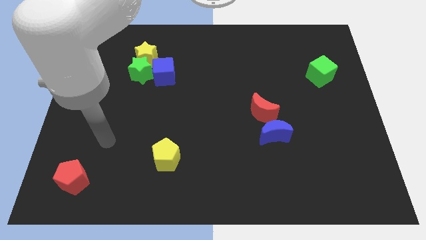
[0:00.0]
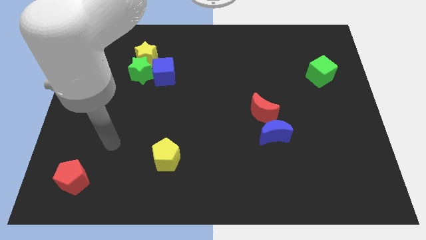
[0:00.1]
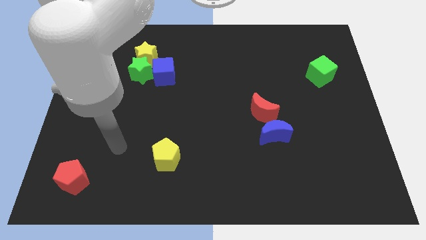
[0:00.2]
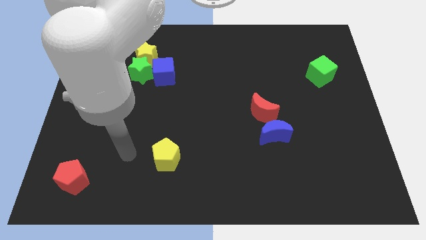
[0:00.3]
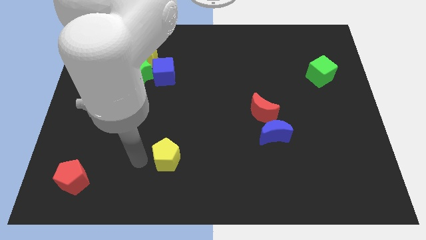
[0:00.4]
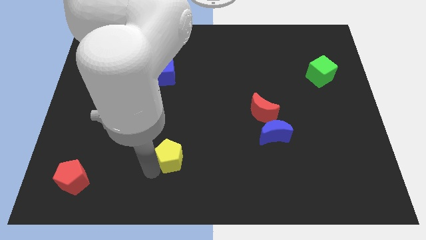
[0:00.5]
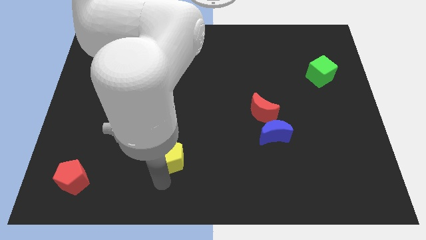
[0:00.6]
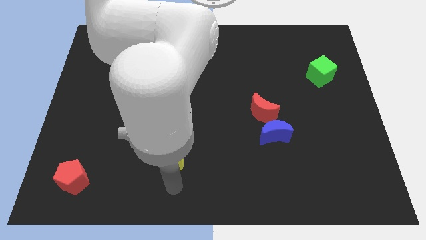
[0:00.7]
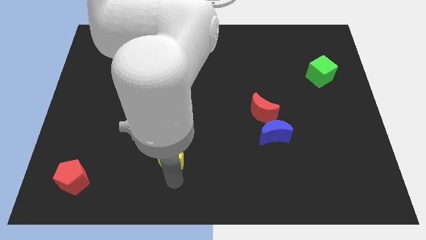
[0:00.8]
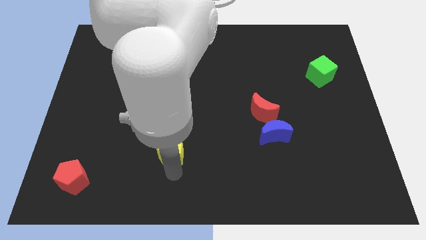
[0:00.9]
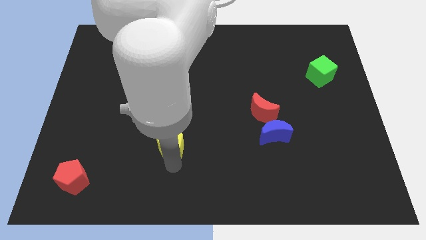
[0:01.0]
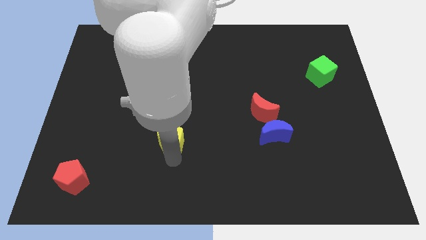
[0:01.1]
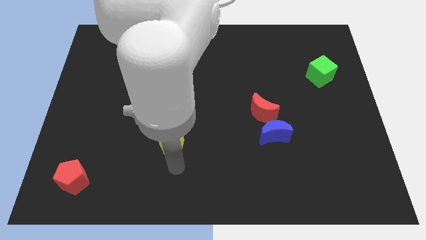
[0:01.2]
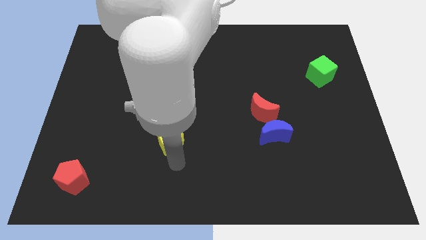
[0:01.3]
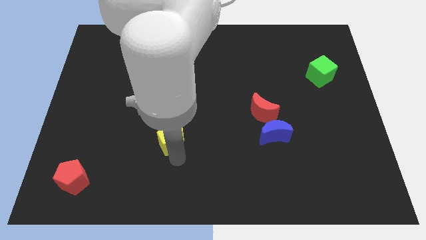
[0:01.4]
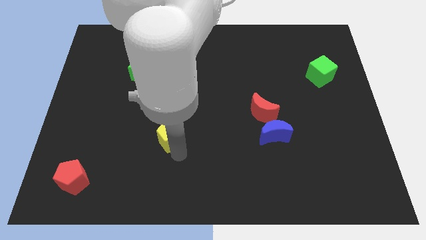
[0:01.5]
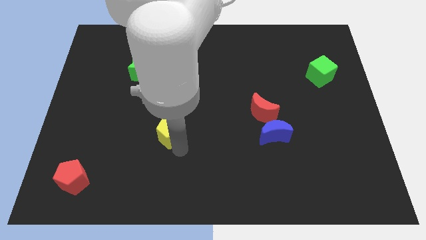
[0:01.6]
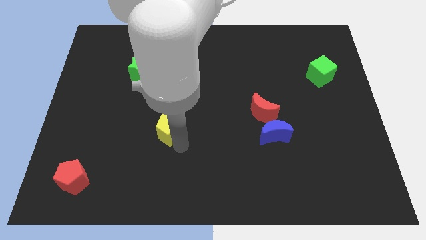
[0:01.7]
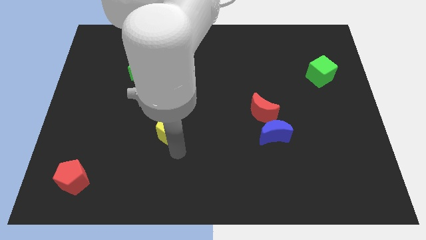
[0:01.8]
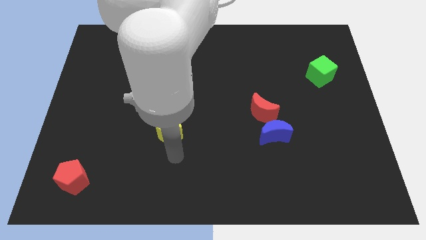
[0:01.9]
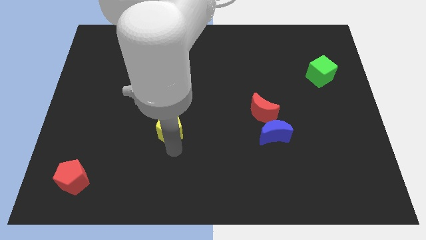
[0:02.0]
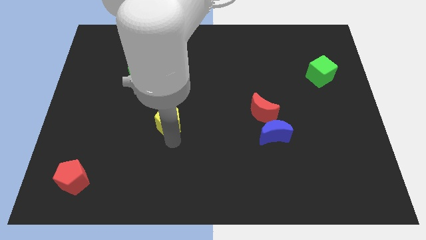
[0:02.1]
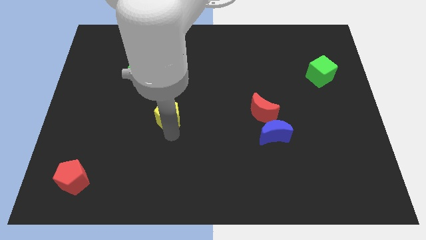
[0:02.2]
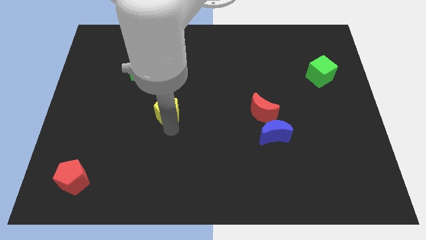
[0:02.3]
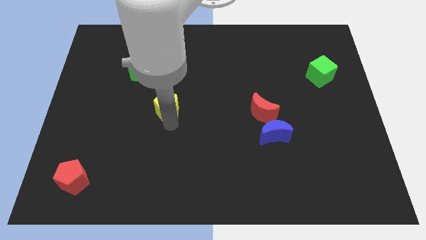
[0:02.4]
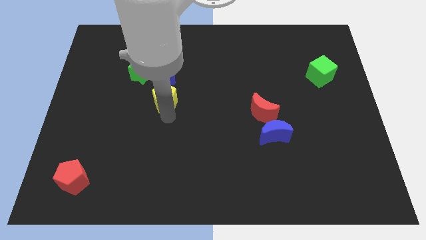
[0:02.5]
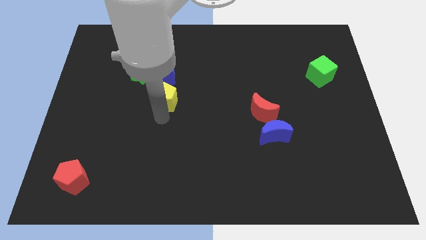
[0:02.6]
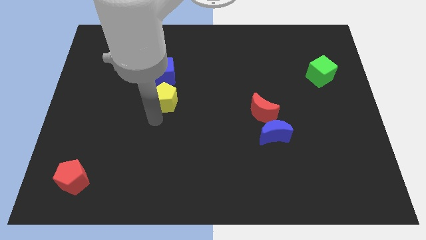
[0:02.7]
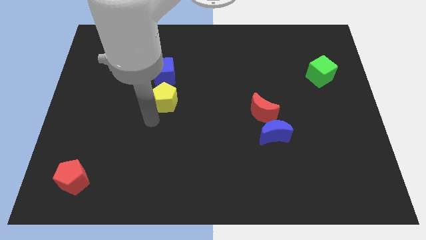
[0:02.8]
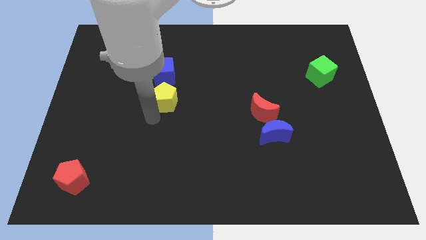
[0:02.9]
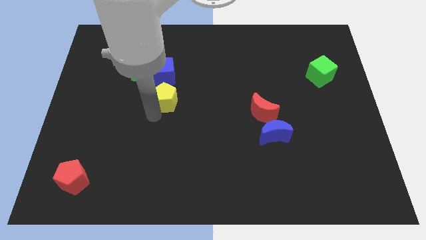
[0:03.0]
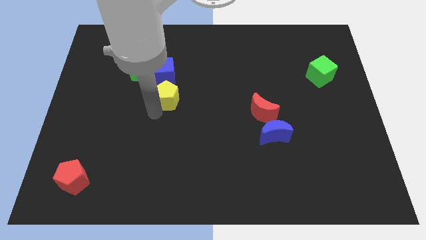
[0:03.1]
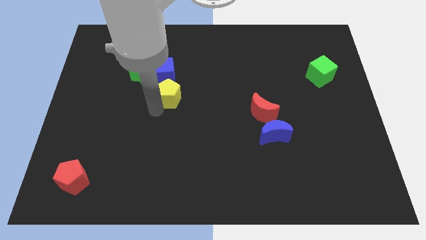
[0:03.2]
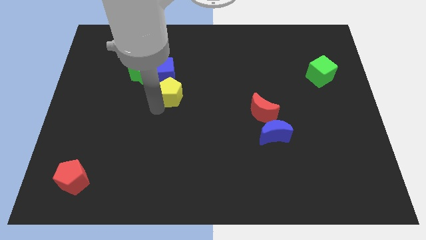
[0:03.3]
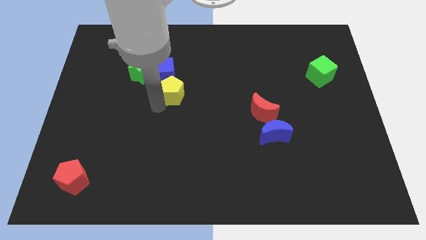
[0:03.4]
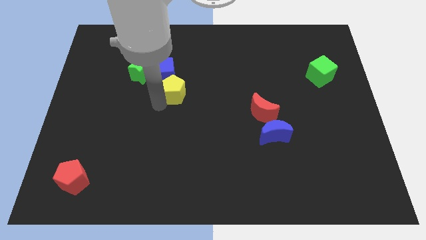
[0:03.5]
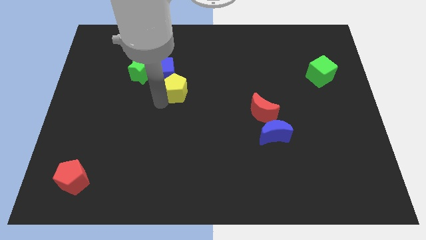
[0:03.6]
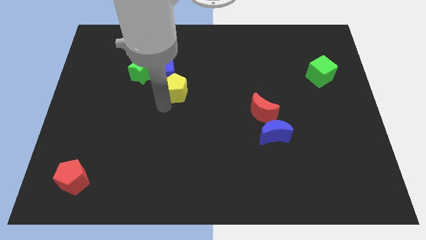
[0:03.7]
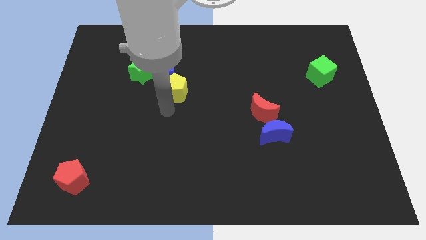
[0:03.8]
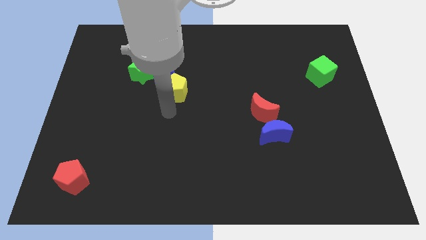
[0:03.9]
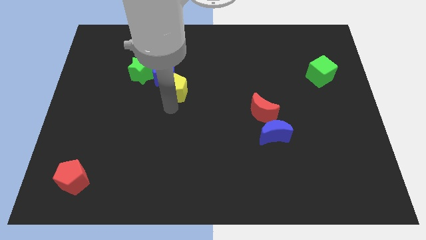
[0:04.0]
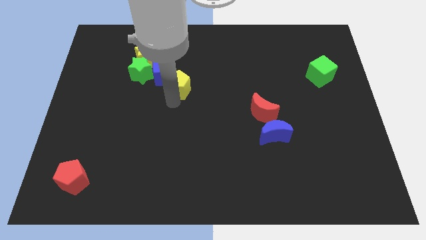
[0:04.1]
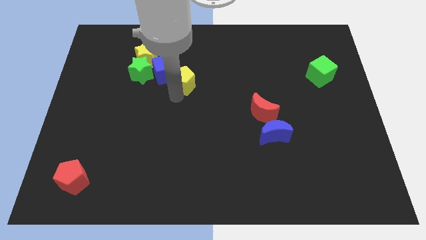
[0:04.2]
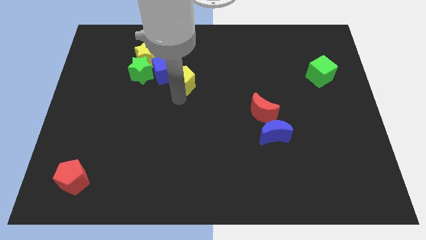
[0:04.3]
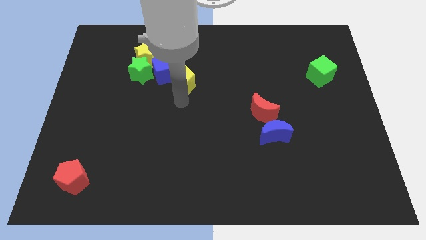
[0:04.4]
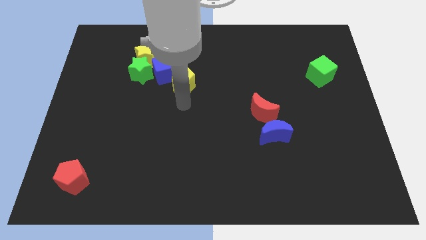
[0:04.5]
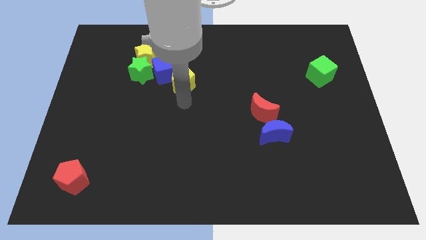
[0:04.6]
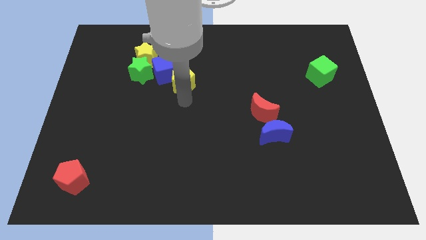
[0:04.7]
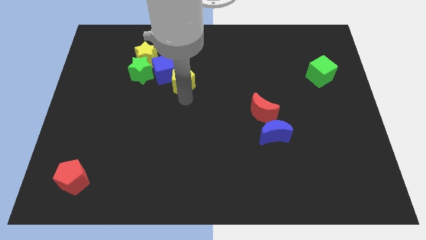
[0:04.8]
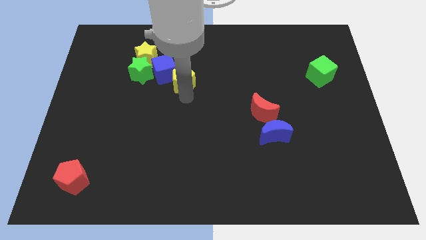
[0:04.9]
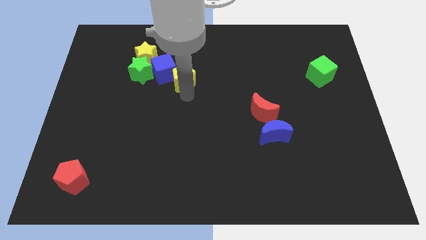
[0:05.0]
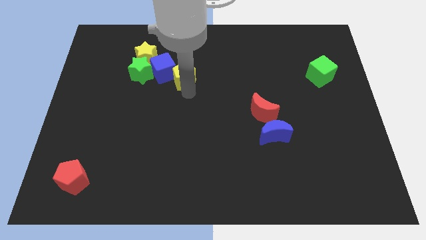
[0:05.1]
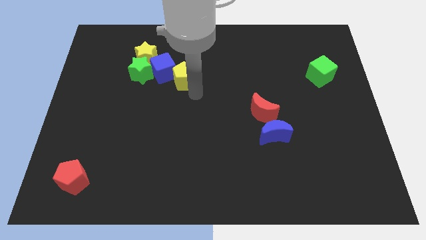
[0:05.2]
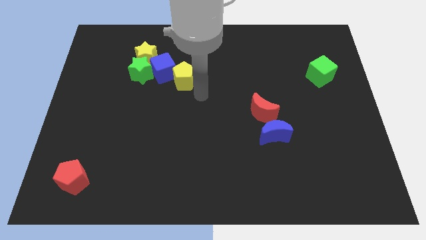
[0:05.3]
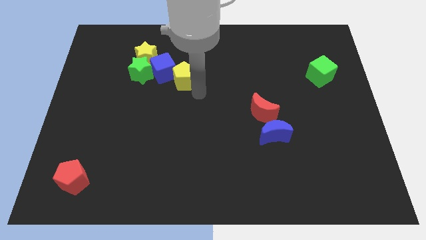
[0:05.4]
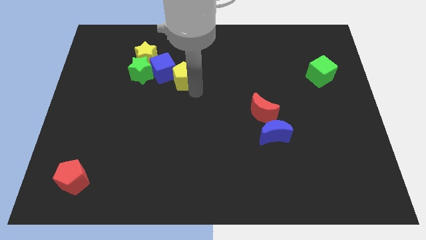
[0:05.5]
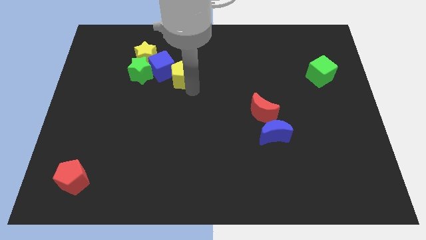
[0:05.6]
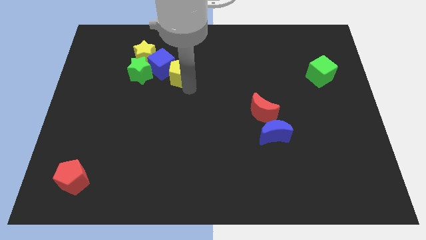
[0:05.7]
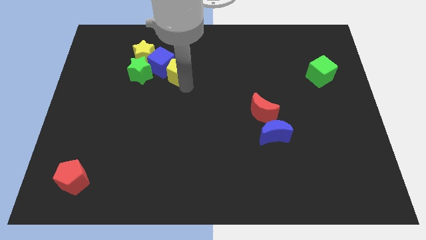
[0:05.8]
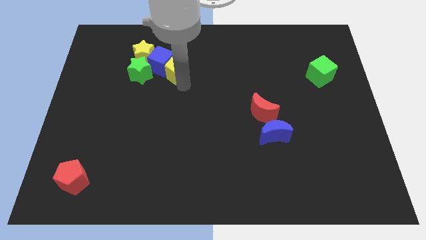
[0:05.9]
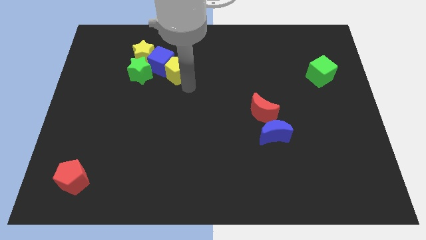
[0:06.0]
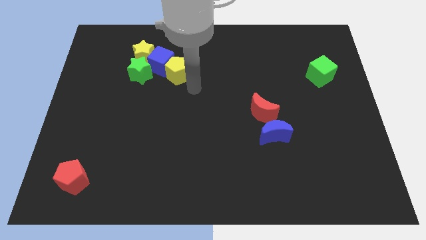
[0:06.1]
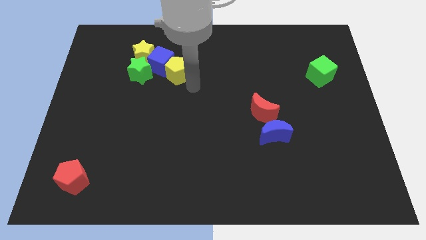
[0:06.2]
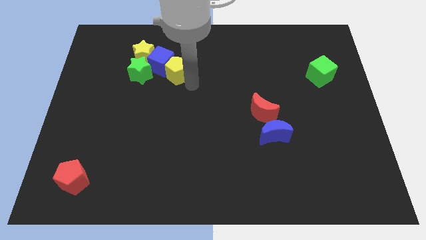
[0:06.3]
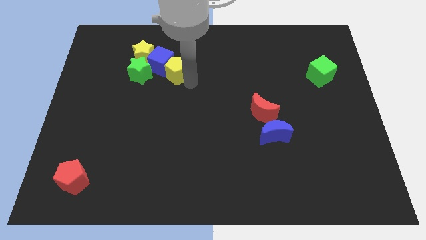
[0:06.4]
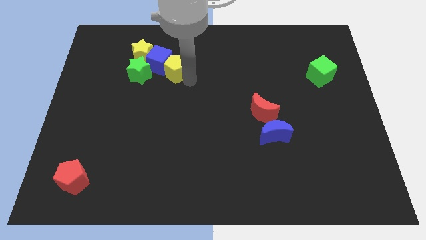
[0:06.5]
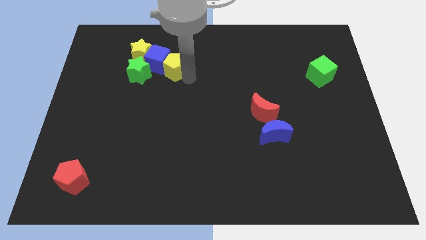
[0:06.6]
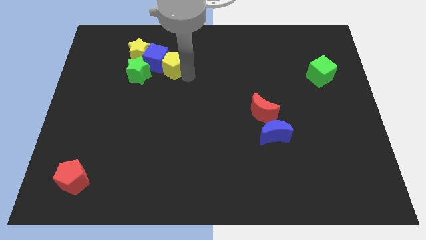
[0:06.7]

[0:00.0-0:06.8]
push the yellow pentagon to the top right of the green star

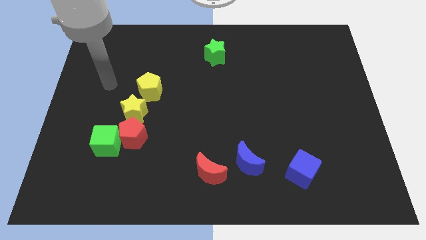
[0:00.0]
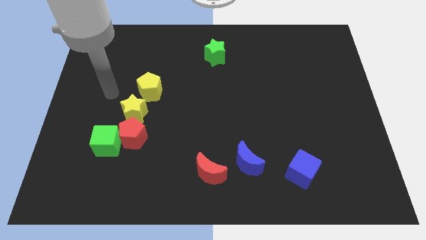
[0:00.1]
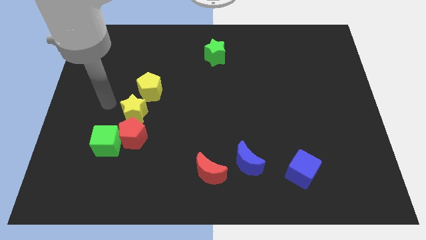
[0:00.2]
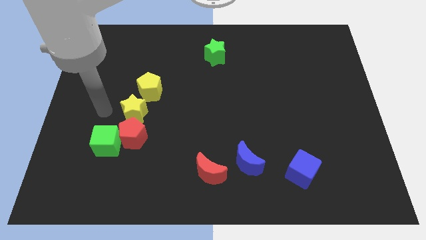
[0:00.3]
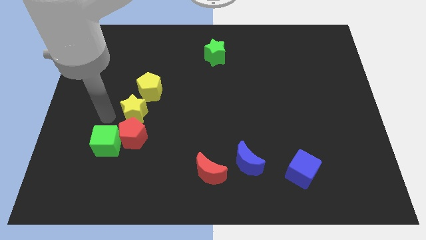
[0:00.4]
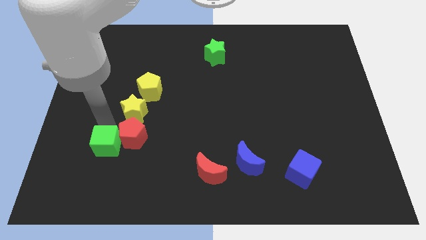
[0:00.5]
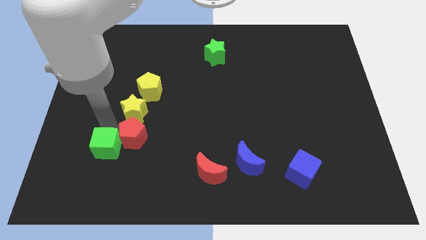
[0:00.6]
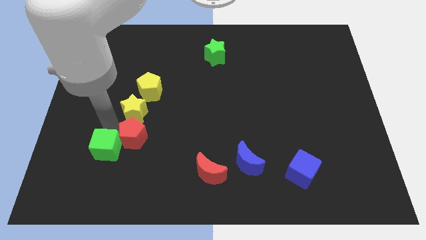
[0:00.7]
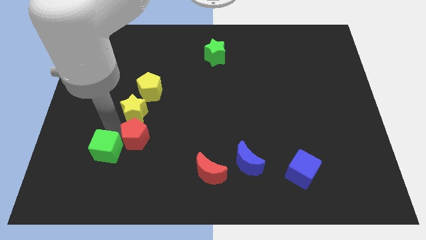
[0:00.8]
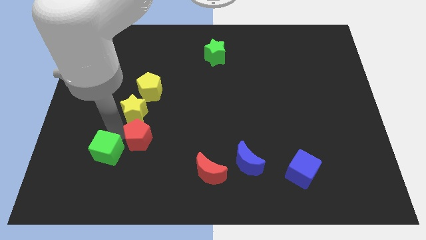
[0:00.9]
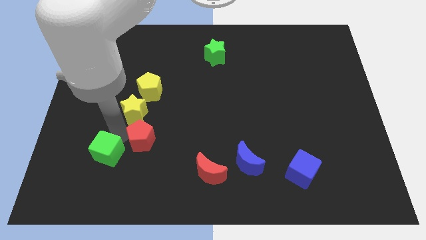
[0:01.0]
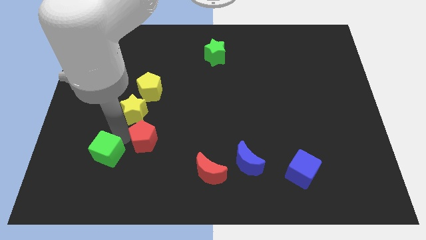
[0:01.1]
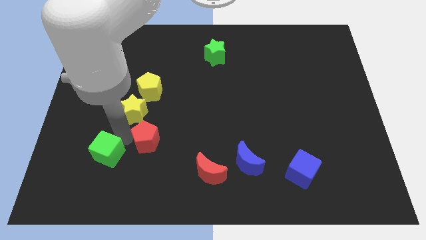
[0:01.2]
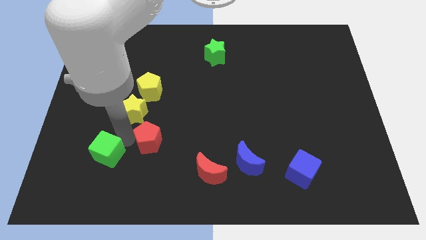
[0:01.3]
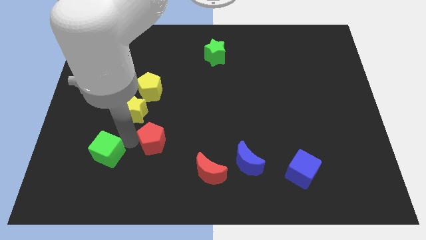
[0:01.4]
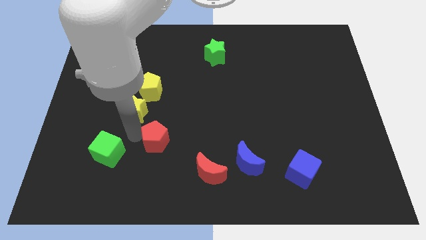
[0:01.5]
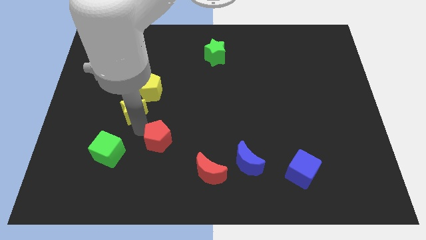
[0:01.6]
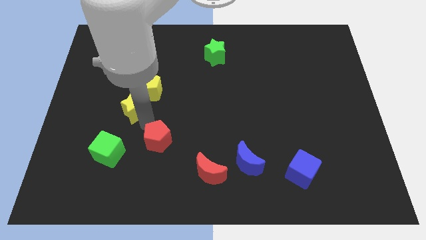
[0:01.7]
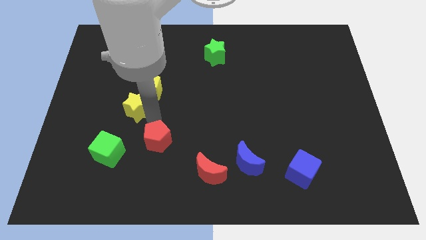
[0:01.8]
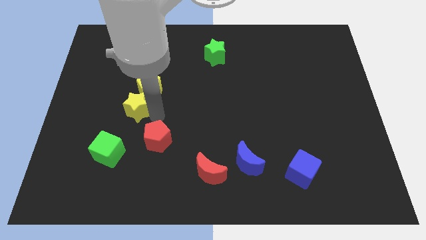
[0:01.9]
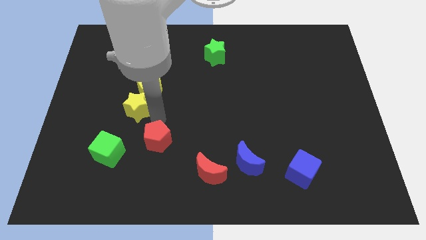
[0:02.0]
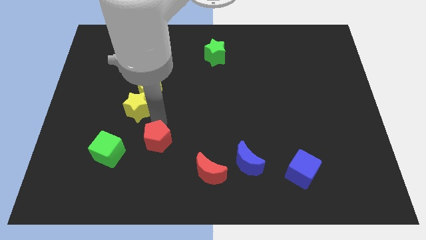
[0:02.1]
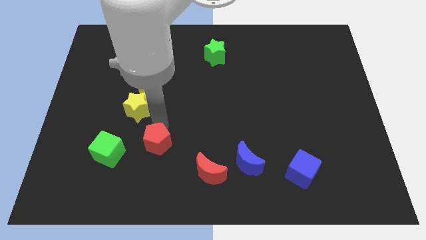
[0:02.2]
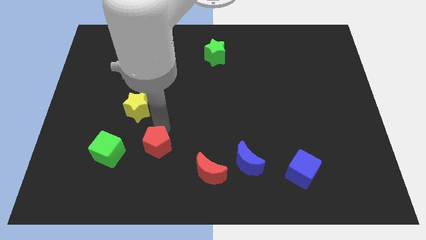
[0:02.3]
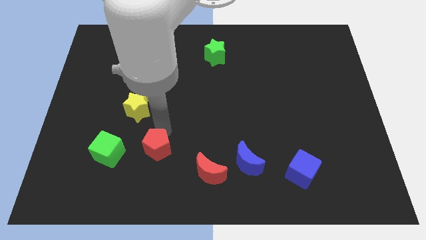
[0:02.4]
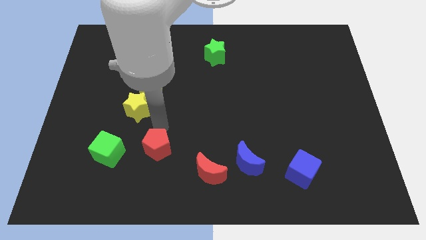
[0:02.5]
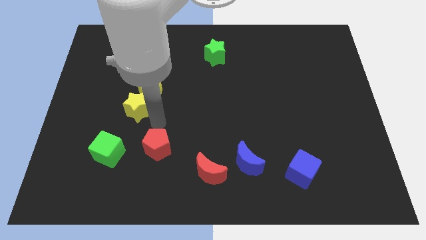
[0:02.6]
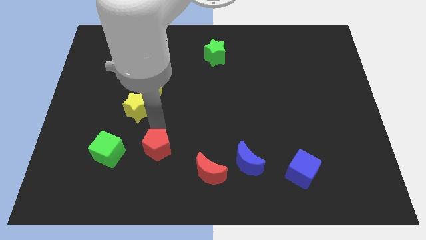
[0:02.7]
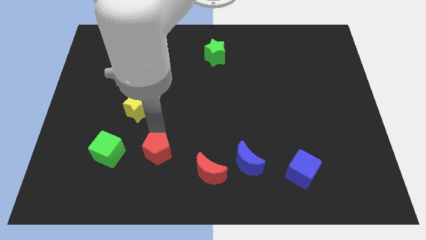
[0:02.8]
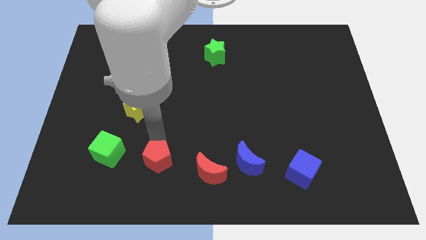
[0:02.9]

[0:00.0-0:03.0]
put the red pentagon just left of the red moon
